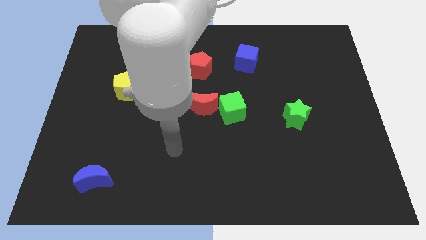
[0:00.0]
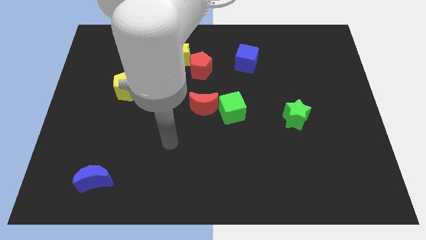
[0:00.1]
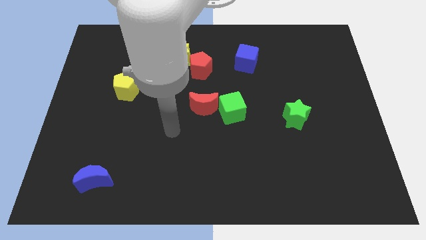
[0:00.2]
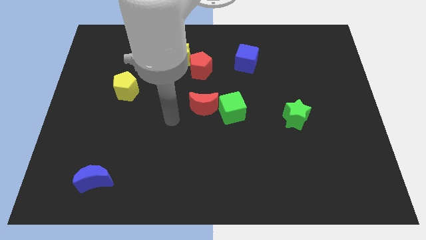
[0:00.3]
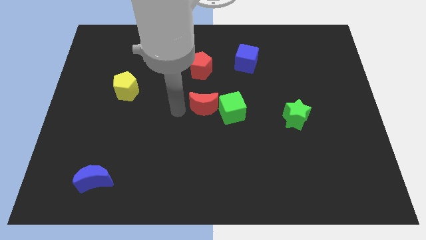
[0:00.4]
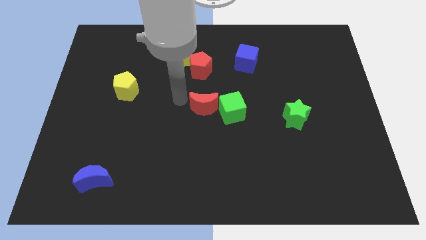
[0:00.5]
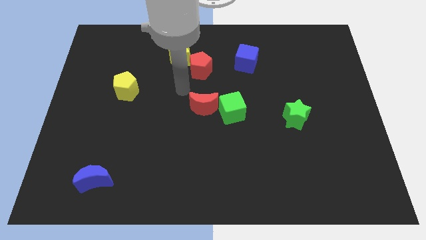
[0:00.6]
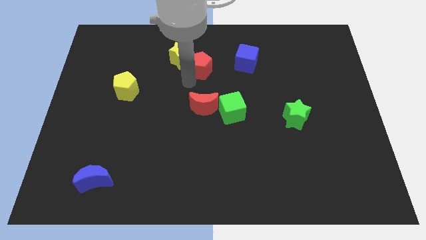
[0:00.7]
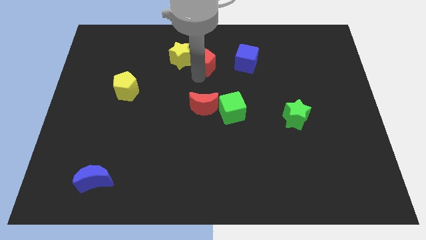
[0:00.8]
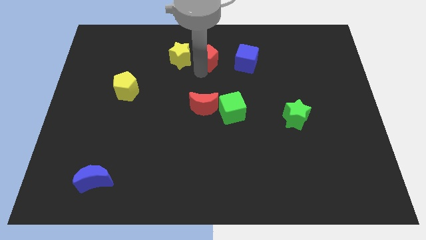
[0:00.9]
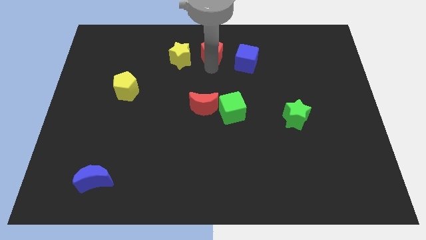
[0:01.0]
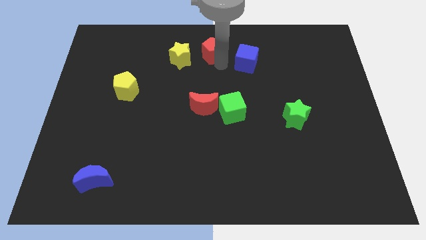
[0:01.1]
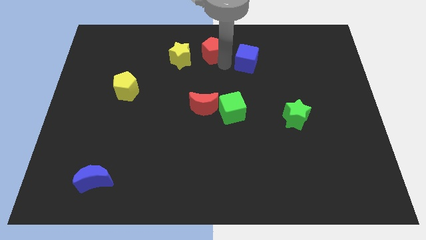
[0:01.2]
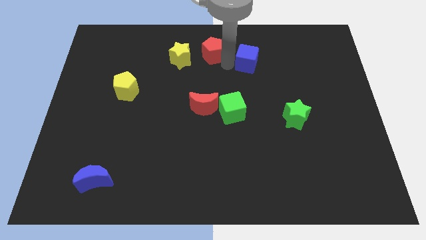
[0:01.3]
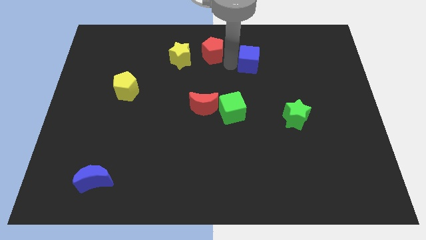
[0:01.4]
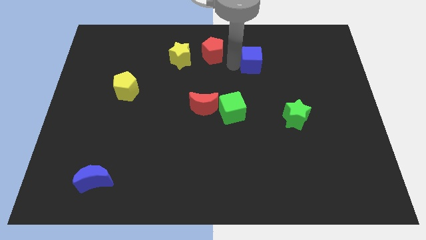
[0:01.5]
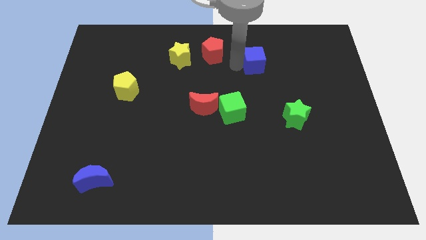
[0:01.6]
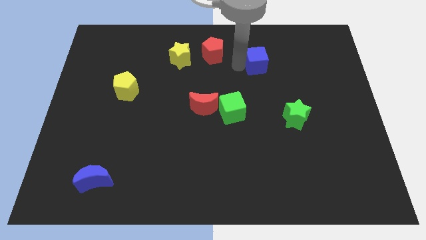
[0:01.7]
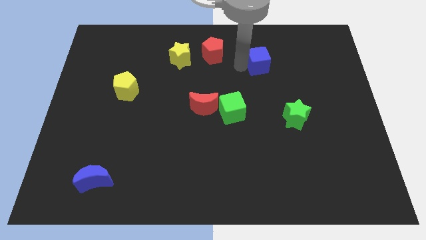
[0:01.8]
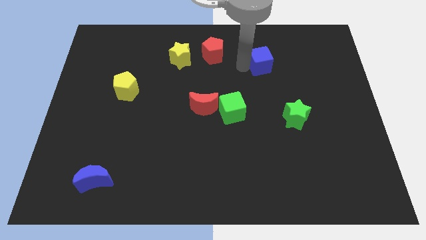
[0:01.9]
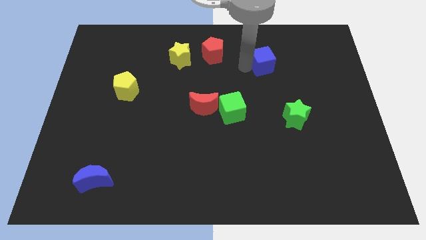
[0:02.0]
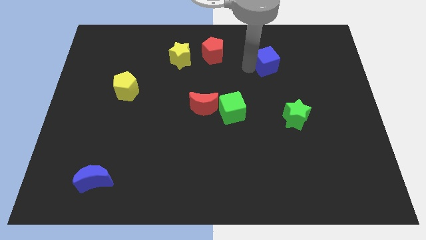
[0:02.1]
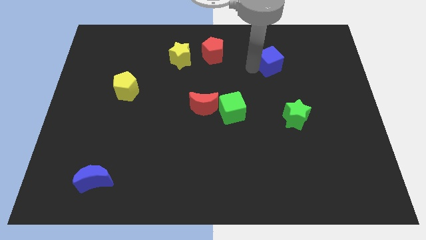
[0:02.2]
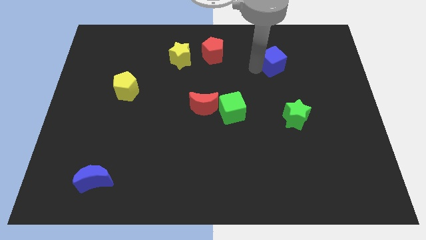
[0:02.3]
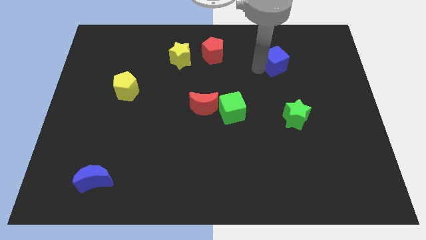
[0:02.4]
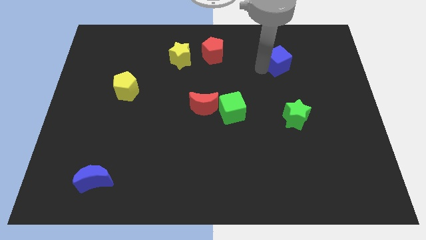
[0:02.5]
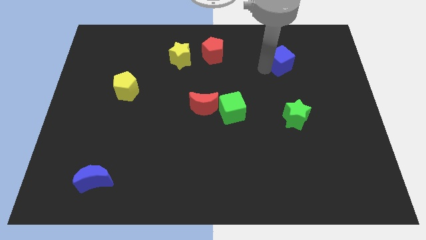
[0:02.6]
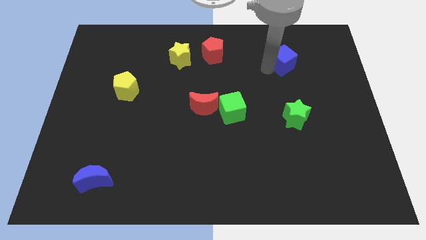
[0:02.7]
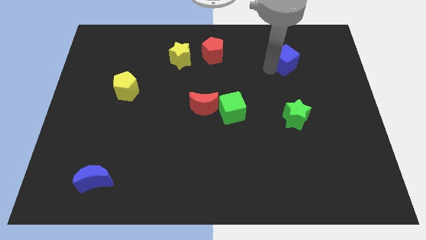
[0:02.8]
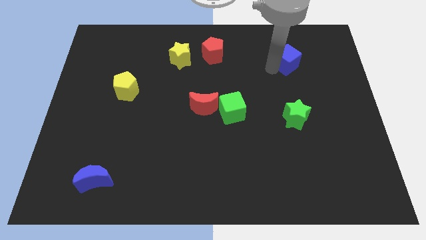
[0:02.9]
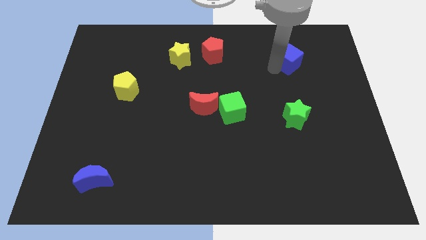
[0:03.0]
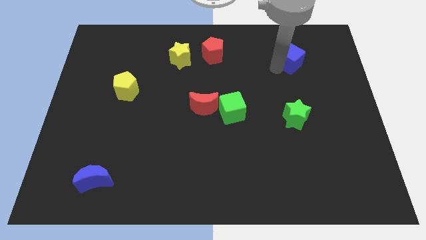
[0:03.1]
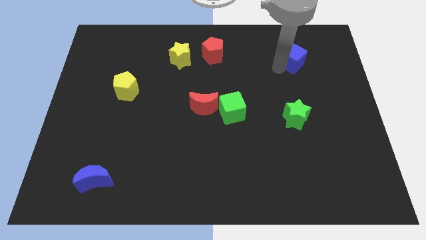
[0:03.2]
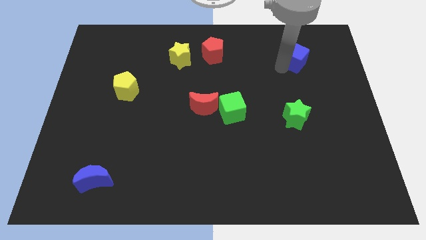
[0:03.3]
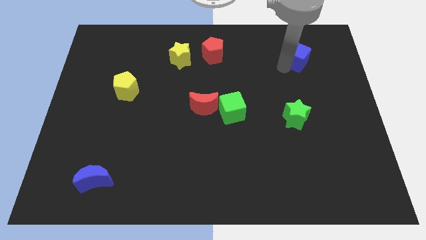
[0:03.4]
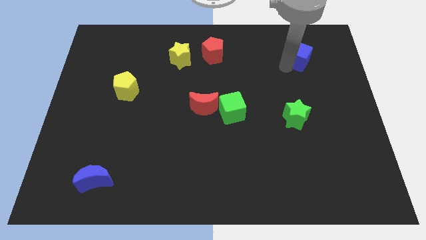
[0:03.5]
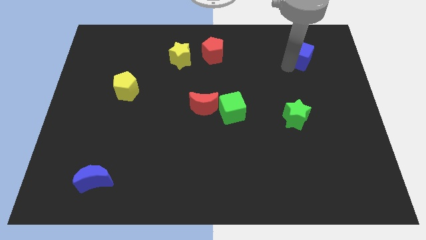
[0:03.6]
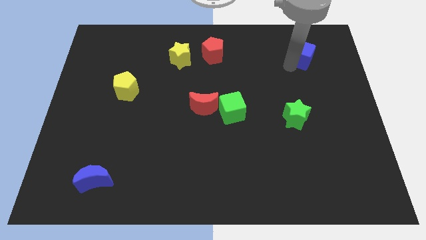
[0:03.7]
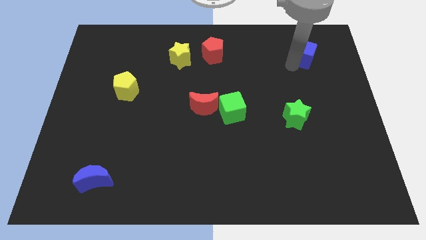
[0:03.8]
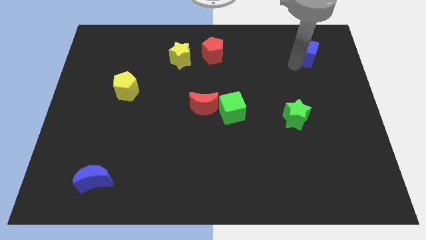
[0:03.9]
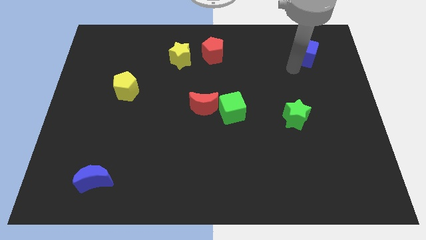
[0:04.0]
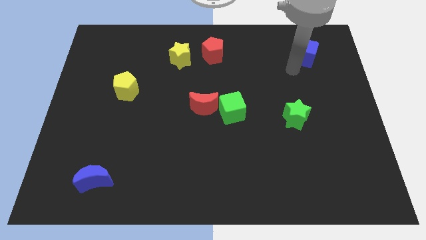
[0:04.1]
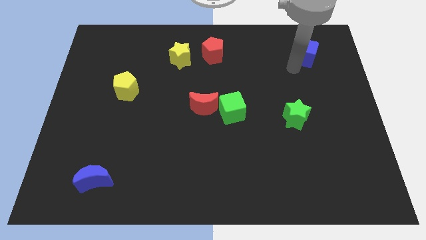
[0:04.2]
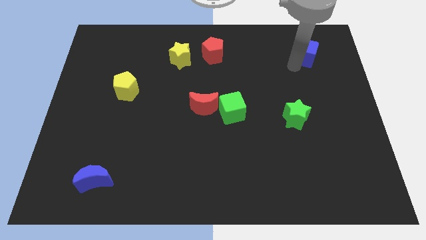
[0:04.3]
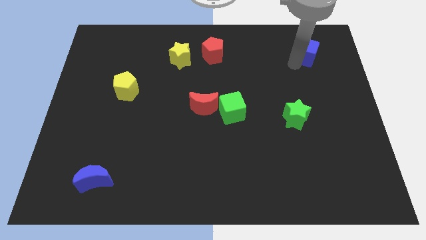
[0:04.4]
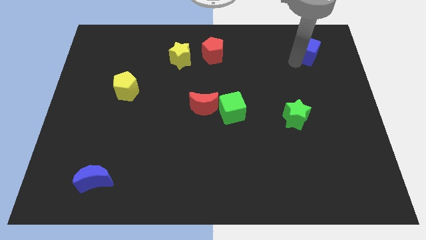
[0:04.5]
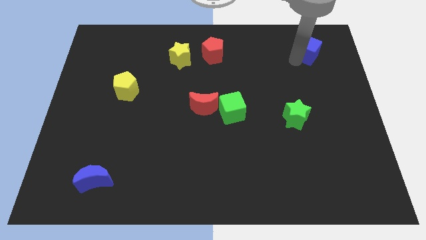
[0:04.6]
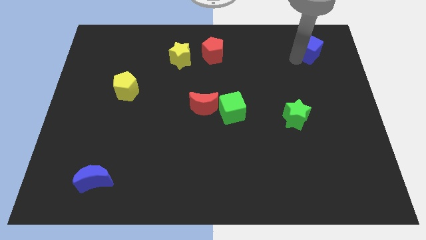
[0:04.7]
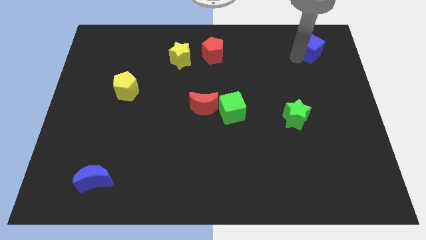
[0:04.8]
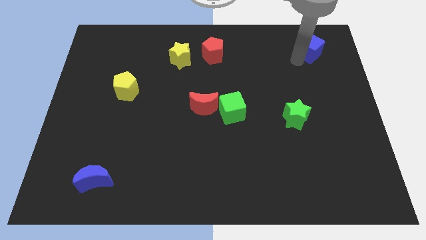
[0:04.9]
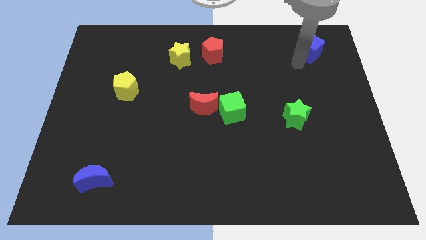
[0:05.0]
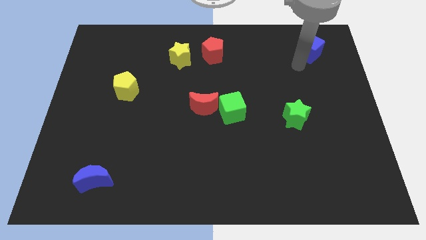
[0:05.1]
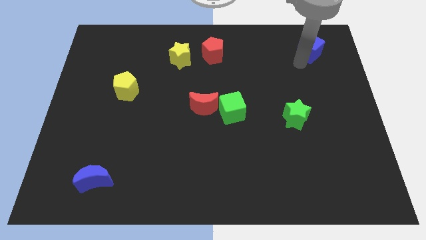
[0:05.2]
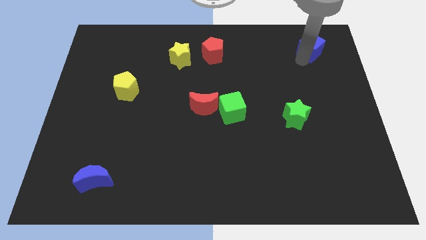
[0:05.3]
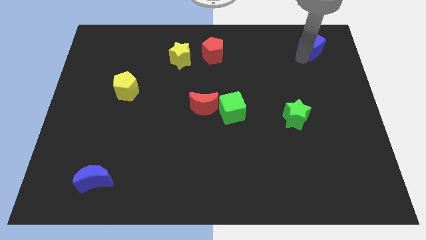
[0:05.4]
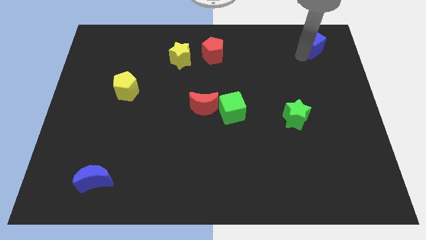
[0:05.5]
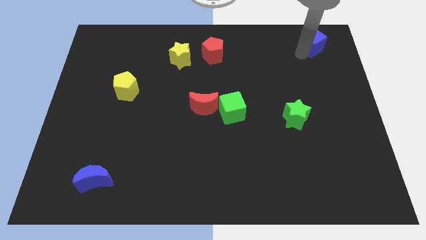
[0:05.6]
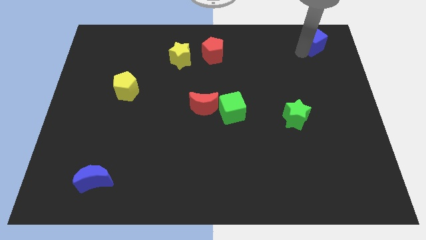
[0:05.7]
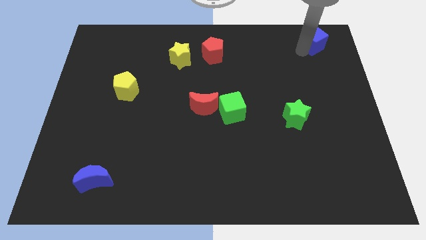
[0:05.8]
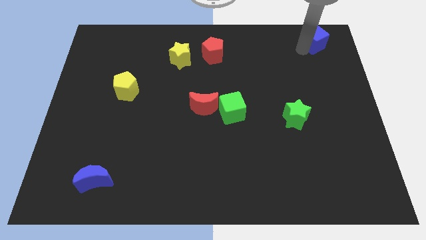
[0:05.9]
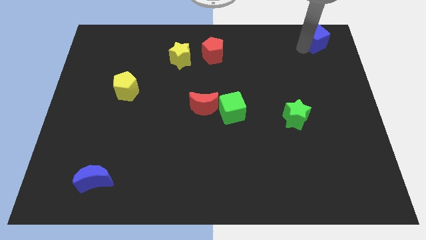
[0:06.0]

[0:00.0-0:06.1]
push the blue cube to the top right

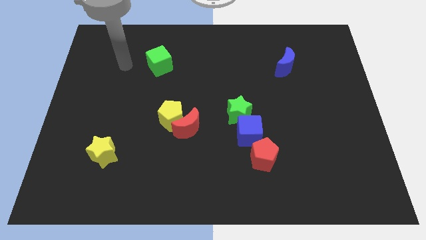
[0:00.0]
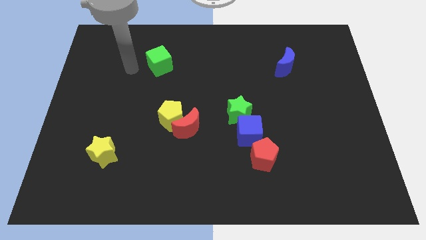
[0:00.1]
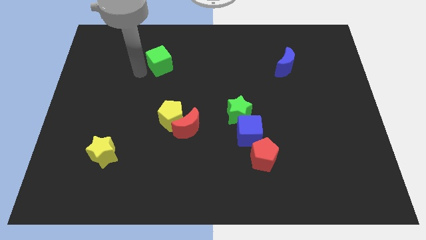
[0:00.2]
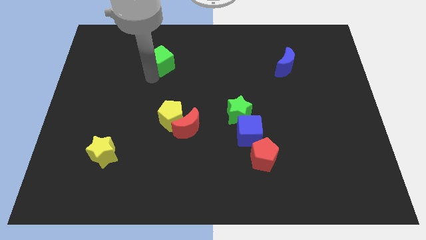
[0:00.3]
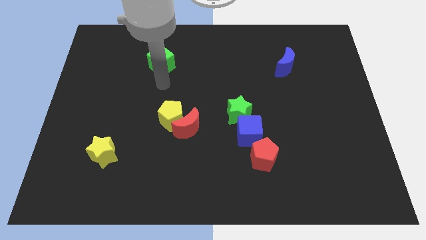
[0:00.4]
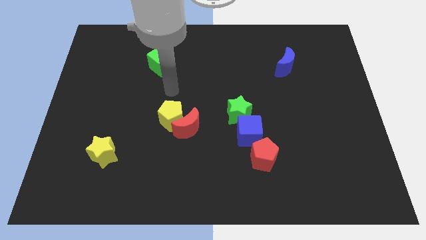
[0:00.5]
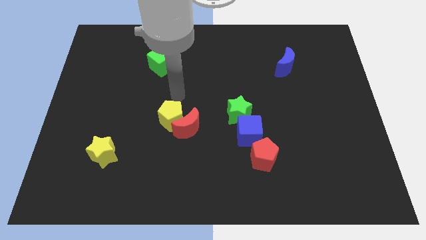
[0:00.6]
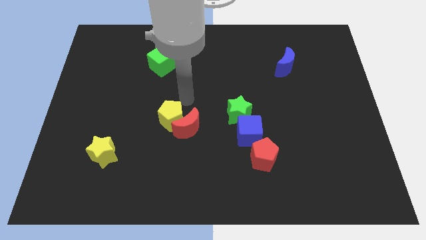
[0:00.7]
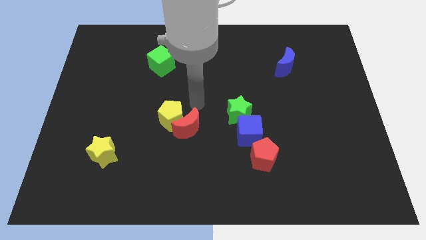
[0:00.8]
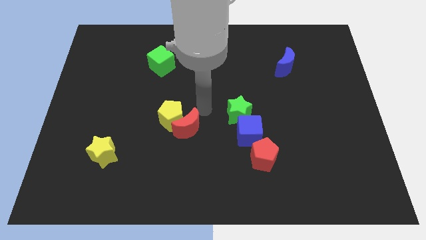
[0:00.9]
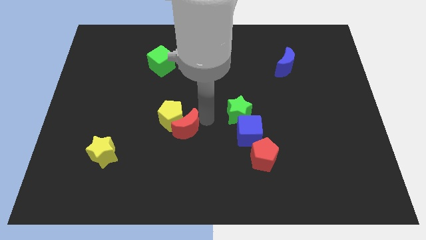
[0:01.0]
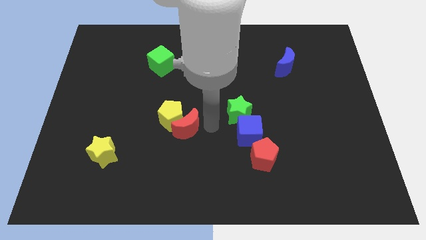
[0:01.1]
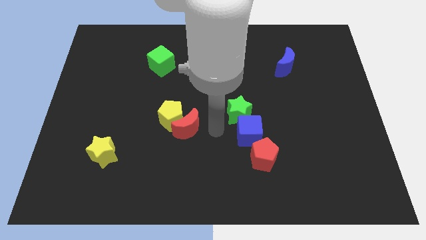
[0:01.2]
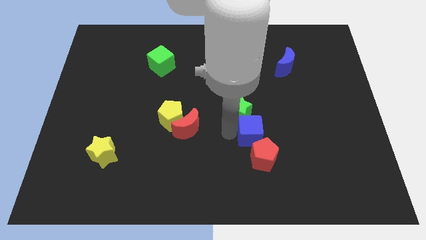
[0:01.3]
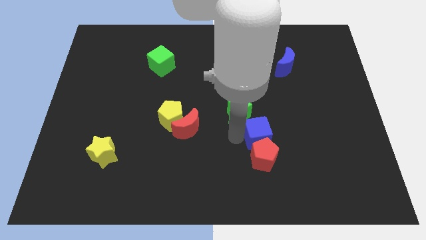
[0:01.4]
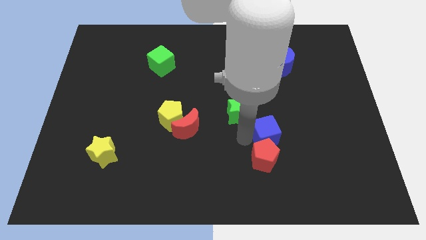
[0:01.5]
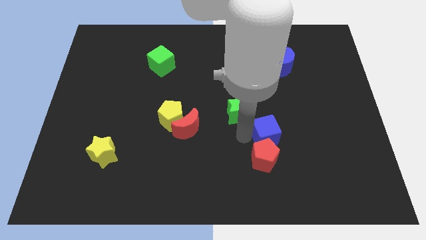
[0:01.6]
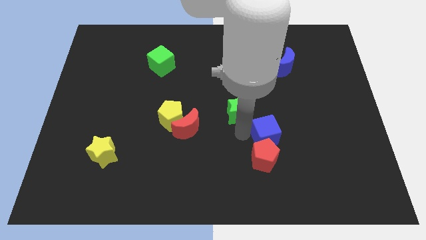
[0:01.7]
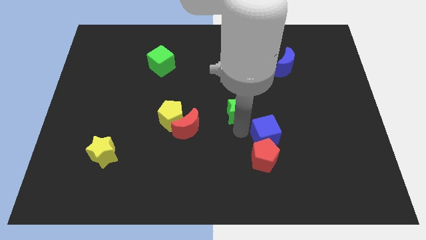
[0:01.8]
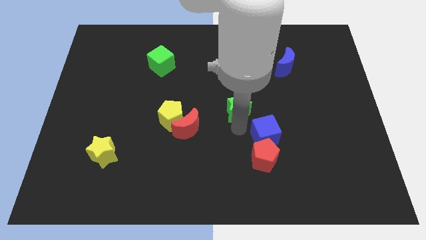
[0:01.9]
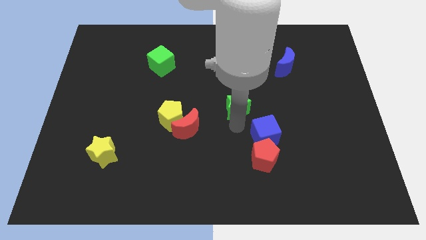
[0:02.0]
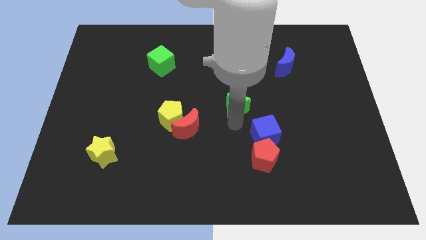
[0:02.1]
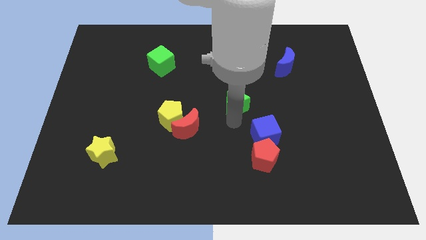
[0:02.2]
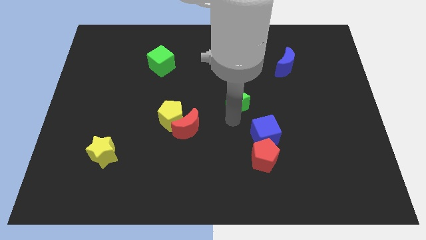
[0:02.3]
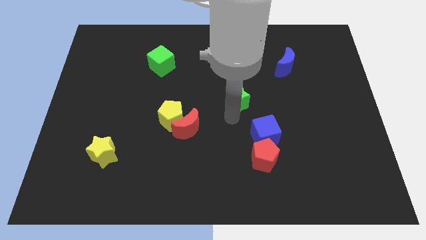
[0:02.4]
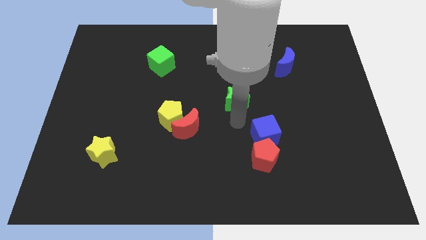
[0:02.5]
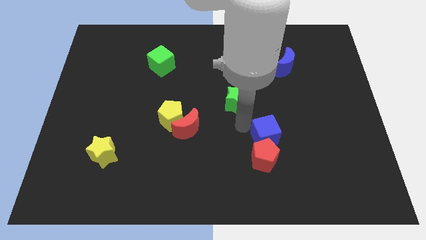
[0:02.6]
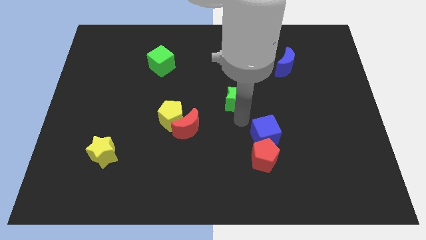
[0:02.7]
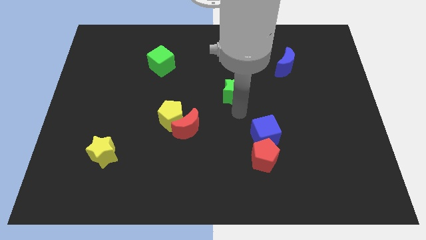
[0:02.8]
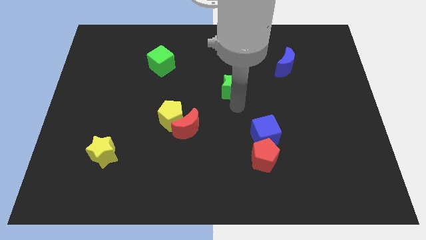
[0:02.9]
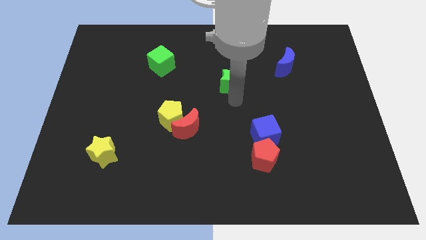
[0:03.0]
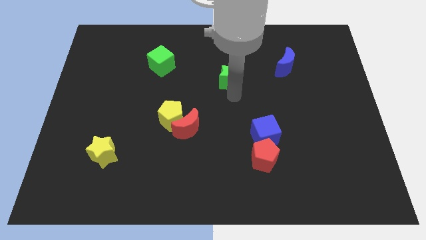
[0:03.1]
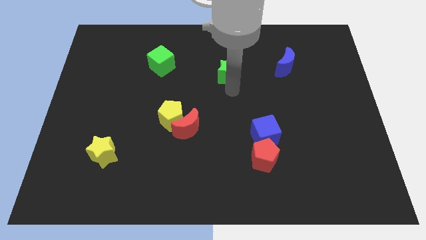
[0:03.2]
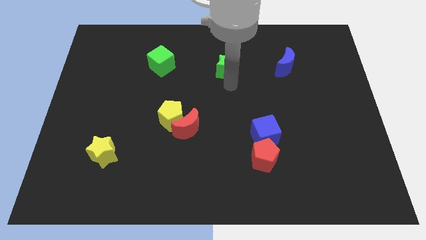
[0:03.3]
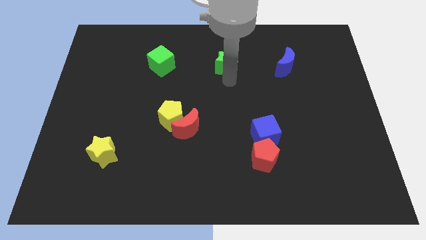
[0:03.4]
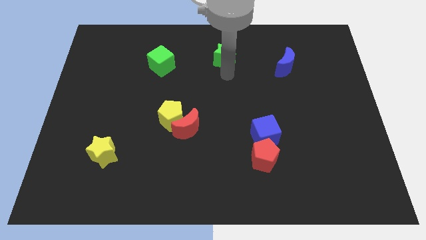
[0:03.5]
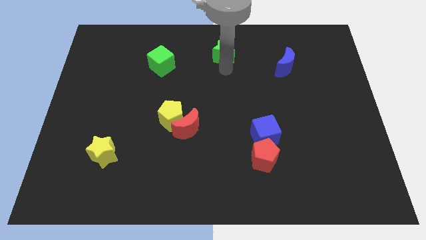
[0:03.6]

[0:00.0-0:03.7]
put the green star to the top side
